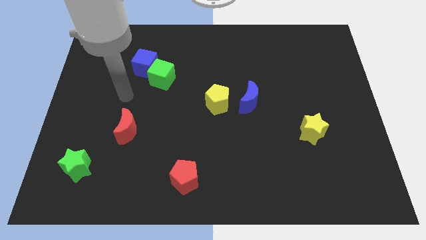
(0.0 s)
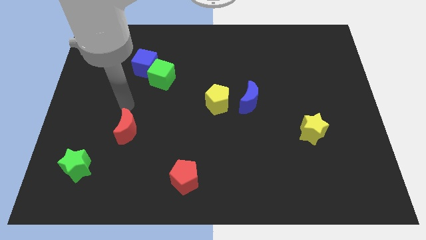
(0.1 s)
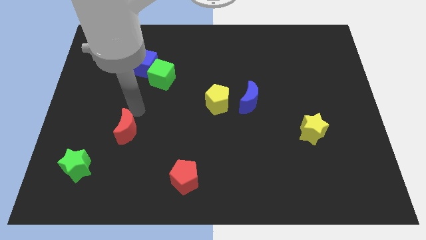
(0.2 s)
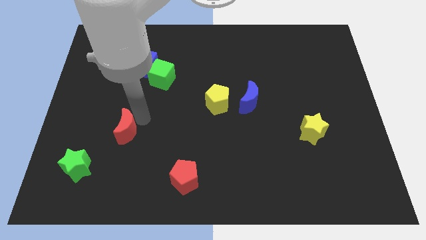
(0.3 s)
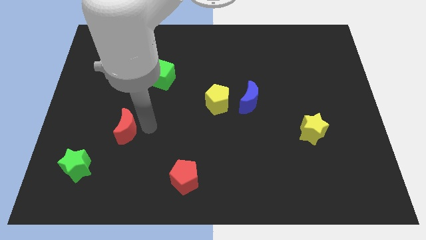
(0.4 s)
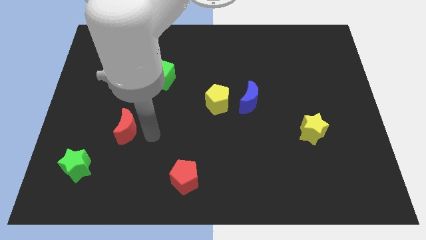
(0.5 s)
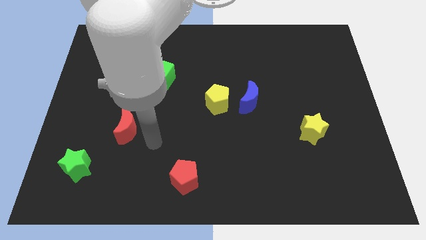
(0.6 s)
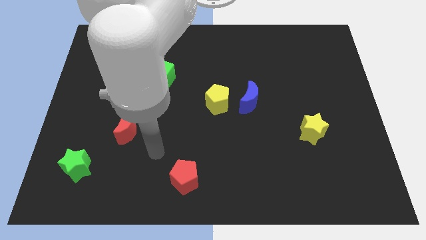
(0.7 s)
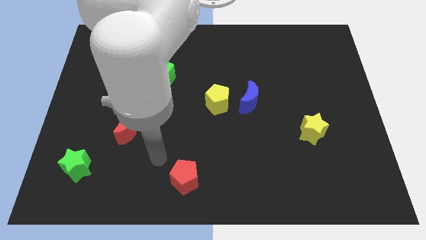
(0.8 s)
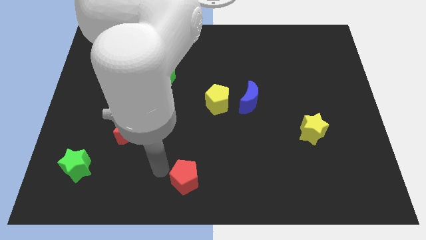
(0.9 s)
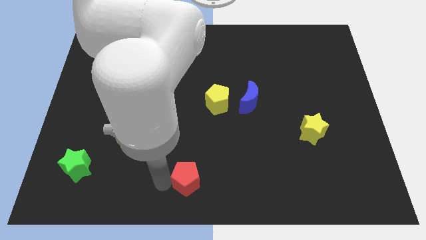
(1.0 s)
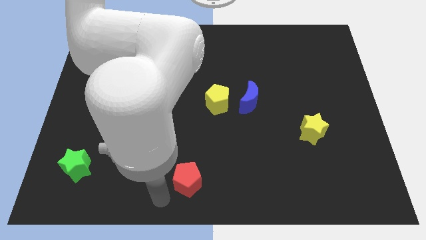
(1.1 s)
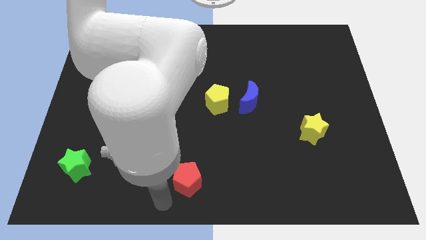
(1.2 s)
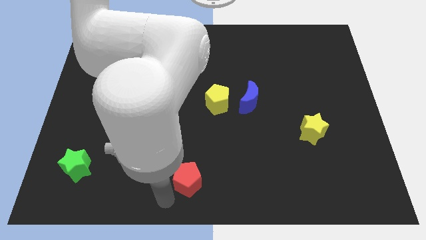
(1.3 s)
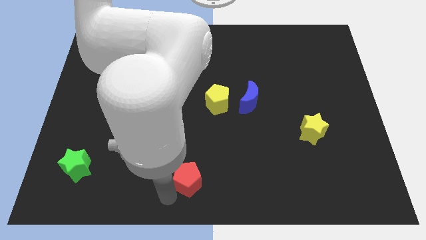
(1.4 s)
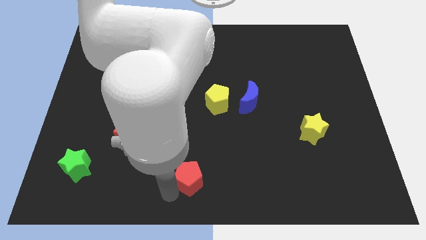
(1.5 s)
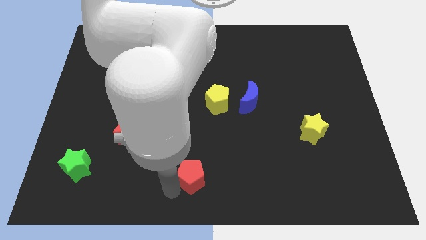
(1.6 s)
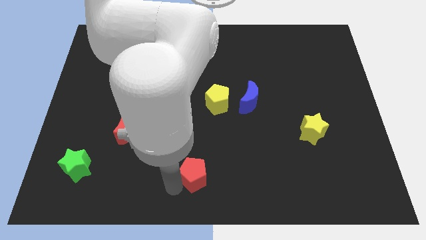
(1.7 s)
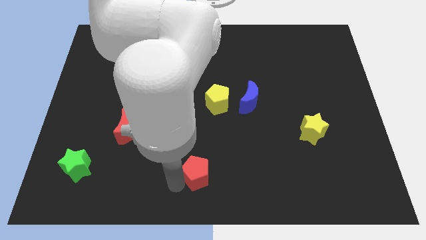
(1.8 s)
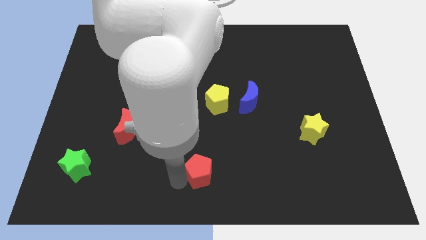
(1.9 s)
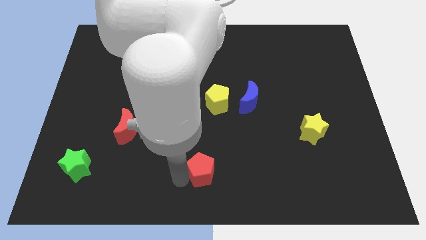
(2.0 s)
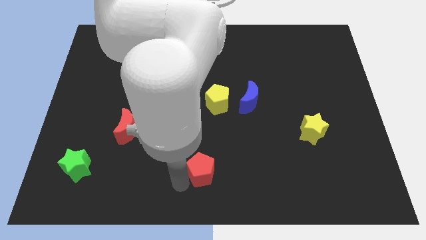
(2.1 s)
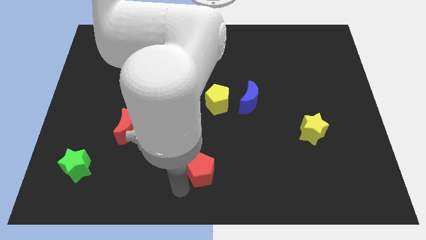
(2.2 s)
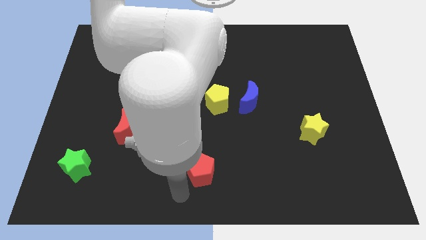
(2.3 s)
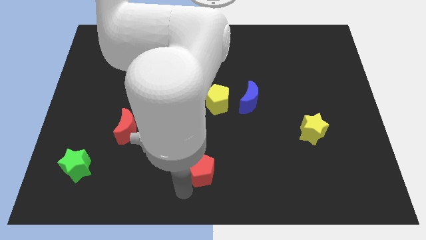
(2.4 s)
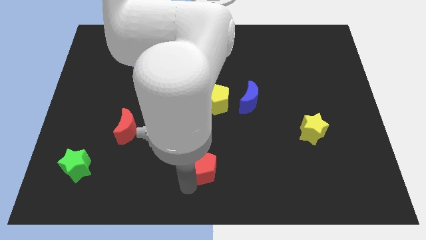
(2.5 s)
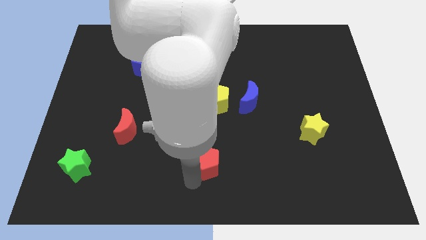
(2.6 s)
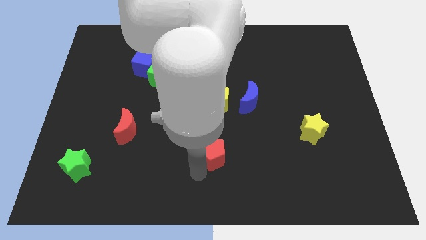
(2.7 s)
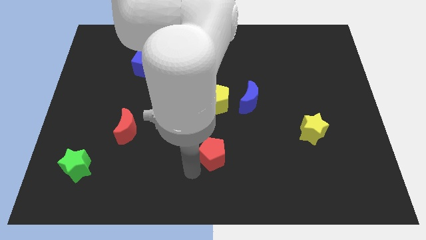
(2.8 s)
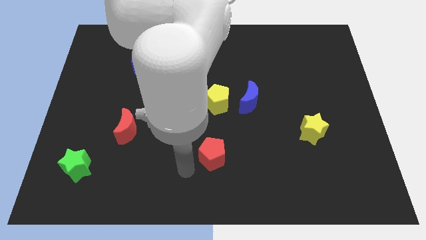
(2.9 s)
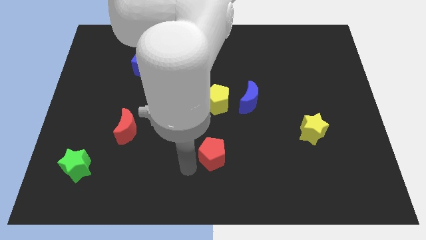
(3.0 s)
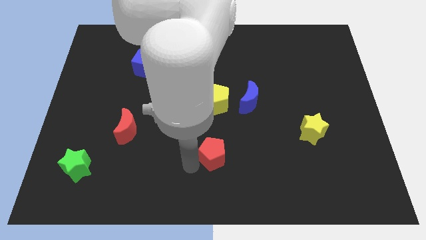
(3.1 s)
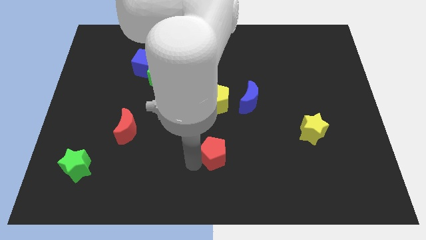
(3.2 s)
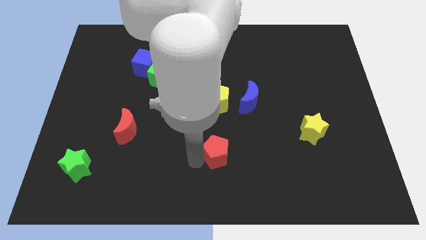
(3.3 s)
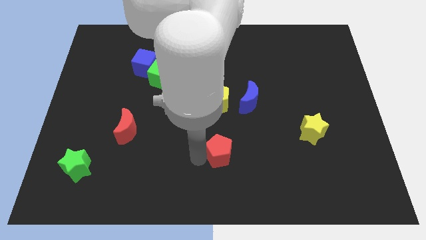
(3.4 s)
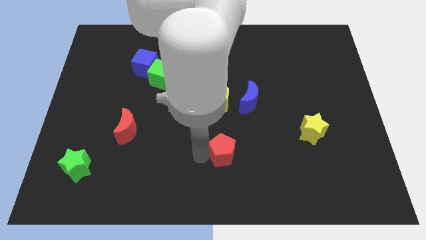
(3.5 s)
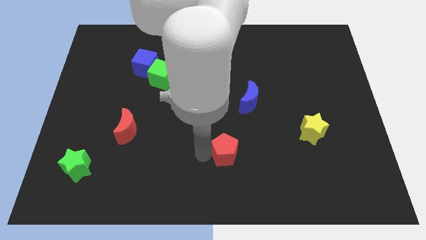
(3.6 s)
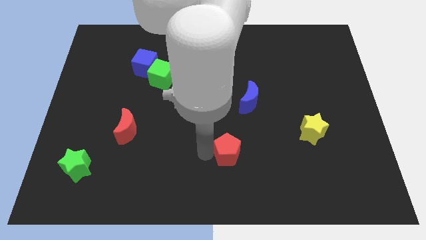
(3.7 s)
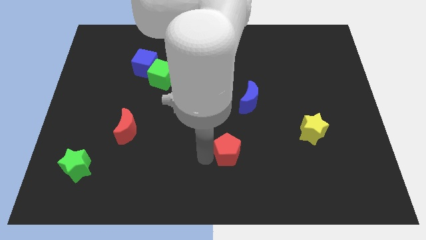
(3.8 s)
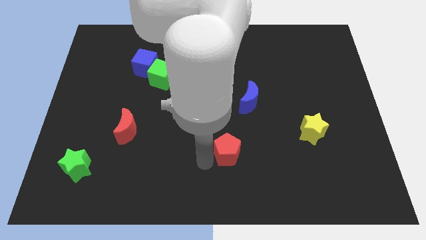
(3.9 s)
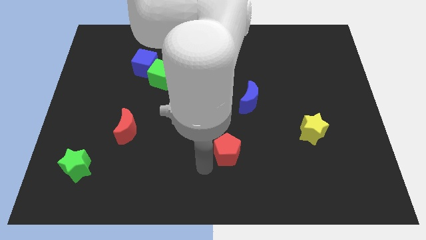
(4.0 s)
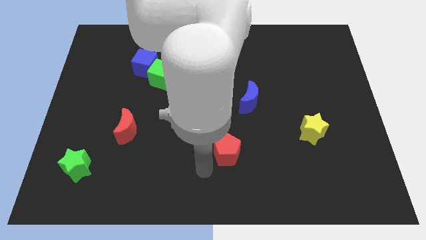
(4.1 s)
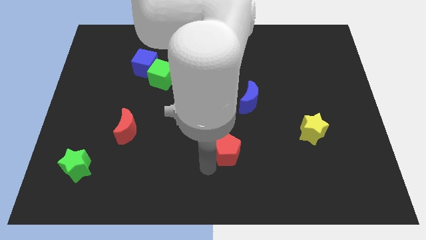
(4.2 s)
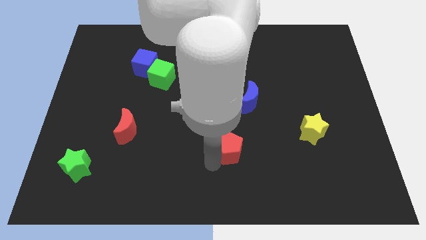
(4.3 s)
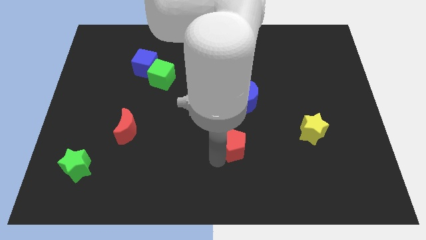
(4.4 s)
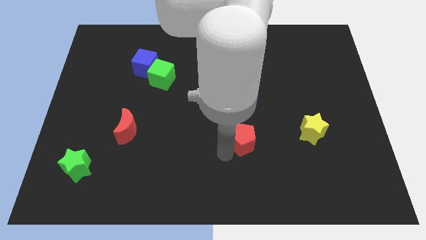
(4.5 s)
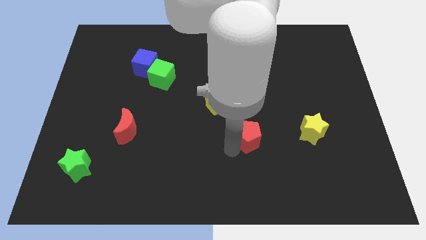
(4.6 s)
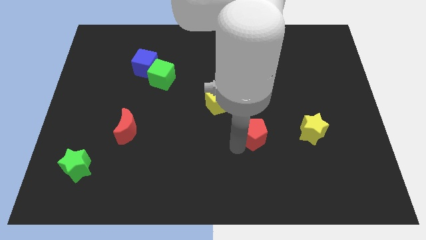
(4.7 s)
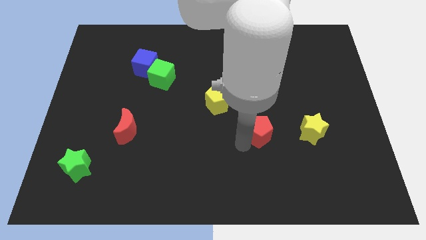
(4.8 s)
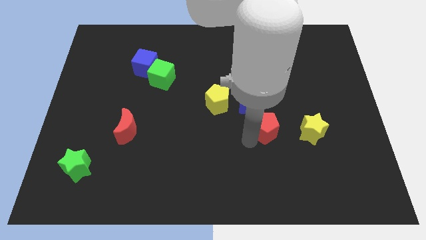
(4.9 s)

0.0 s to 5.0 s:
push the red pentagon diagonally up and right

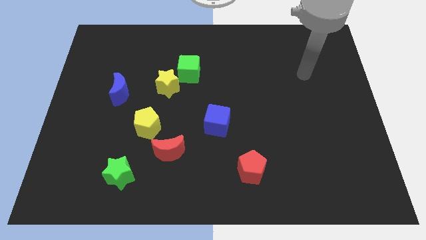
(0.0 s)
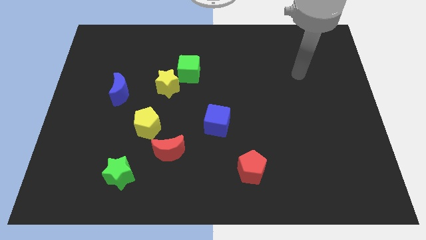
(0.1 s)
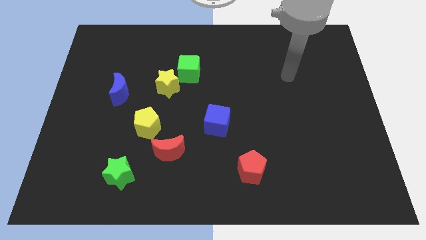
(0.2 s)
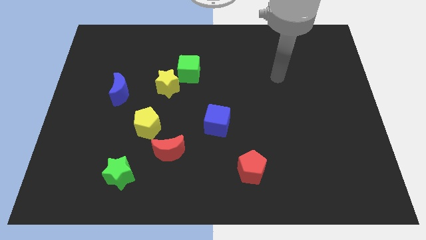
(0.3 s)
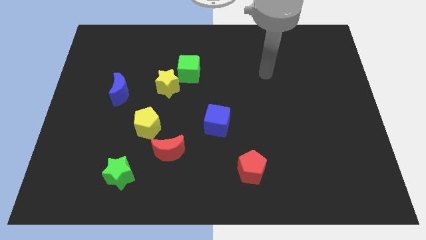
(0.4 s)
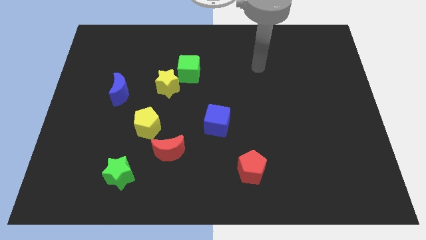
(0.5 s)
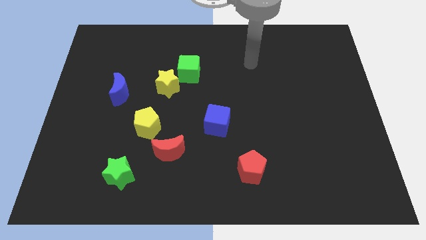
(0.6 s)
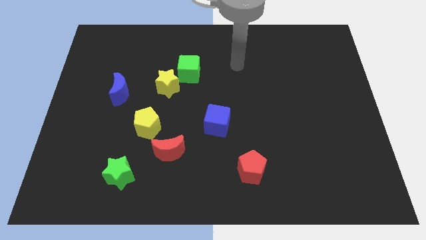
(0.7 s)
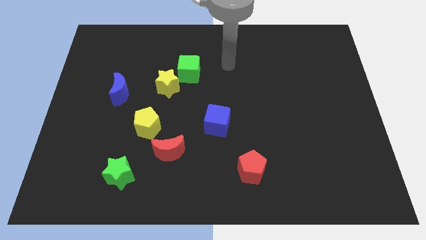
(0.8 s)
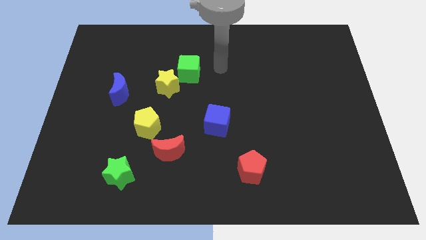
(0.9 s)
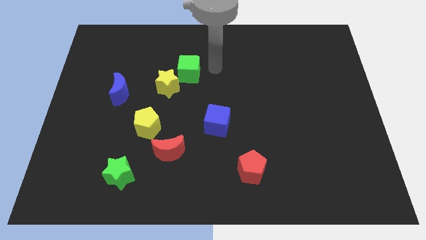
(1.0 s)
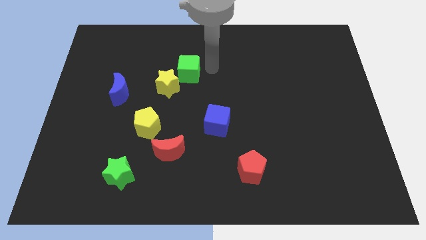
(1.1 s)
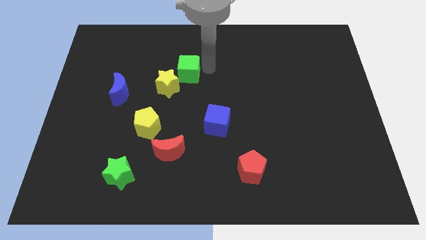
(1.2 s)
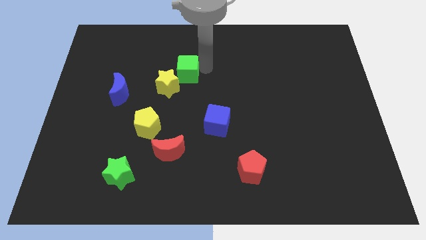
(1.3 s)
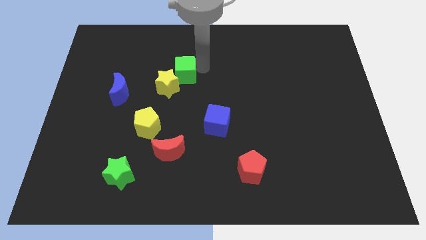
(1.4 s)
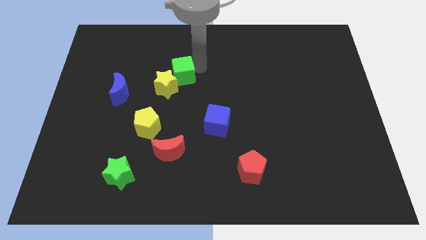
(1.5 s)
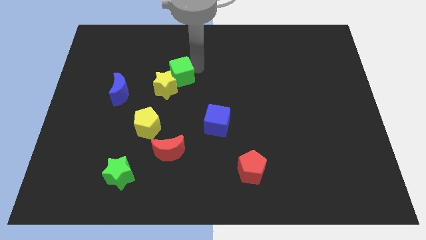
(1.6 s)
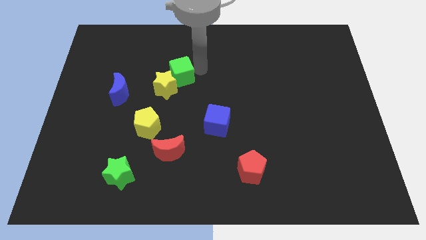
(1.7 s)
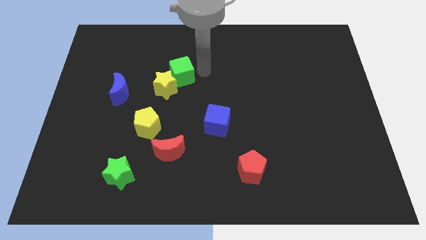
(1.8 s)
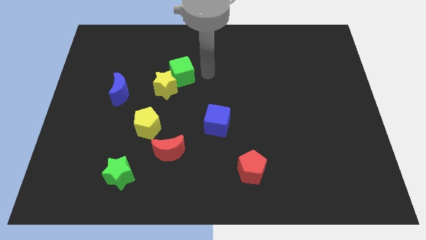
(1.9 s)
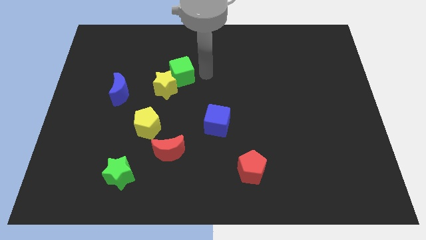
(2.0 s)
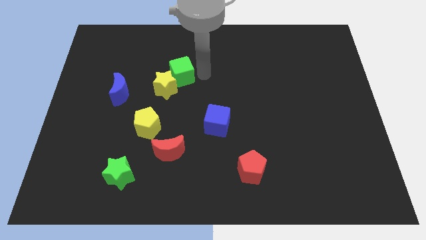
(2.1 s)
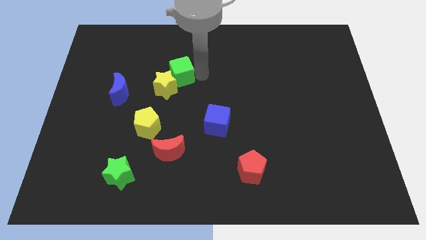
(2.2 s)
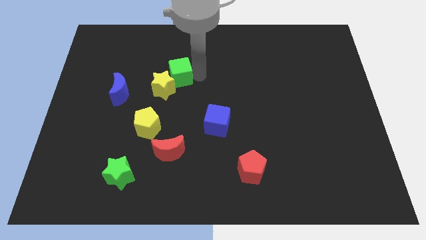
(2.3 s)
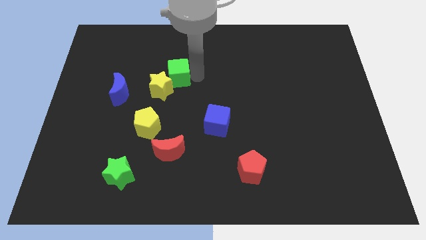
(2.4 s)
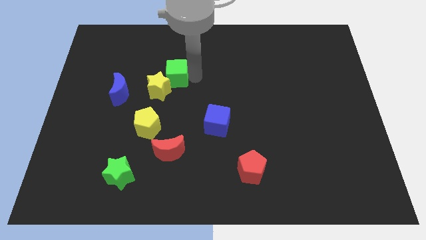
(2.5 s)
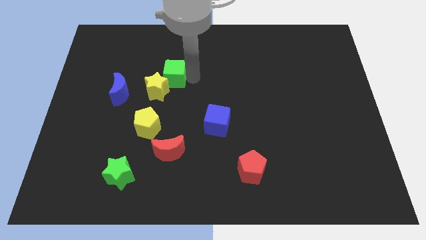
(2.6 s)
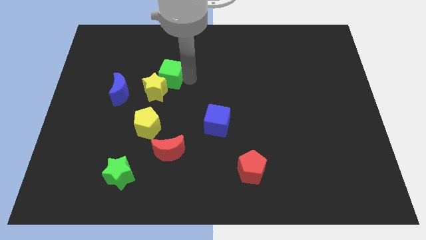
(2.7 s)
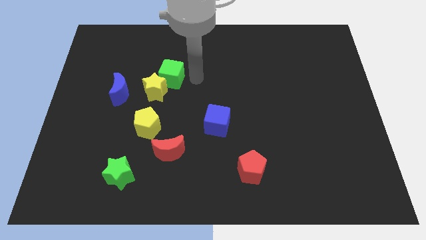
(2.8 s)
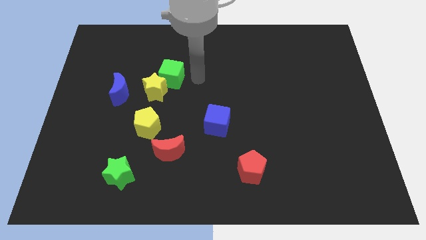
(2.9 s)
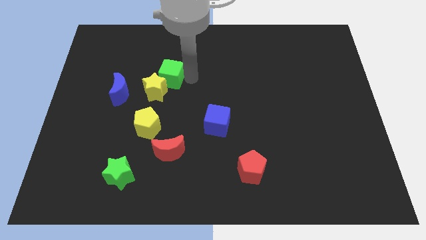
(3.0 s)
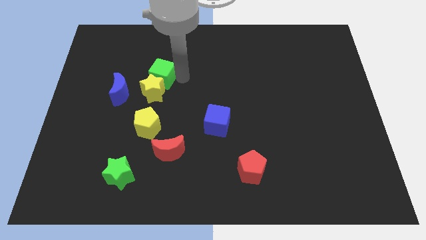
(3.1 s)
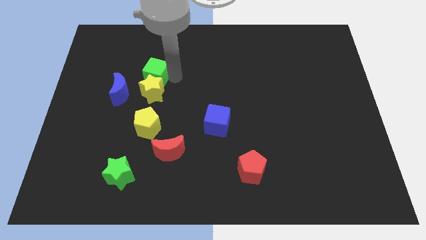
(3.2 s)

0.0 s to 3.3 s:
push the green cube to the left a bit

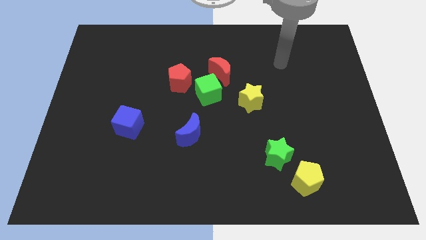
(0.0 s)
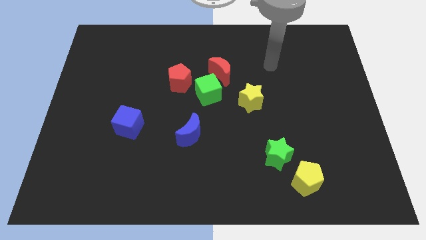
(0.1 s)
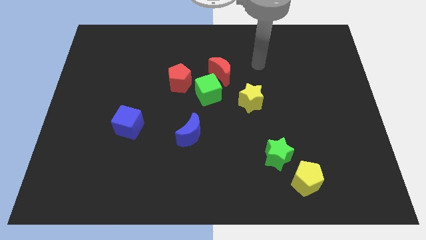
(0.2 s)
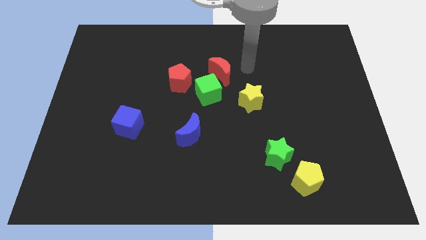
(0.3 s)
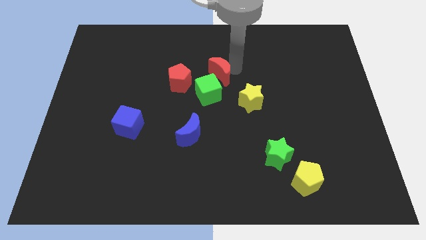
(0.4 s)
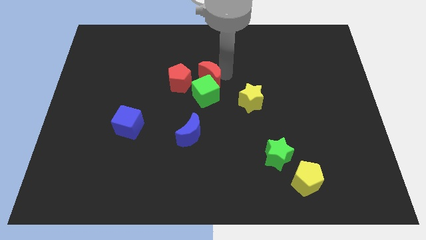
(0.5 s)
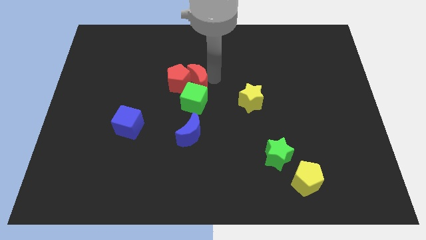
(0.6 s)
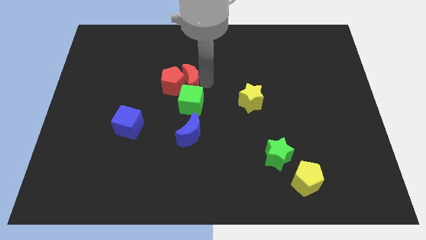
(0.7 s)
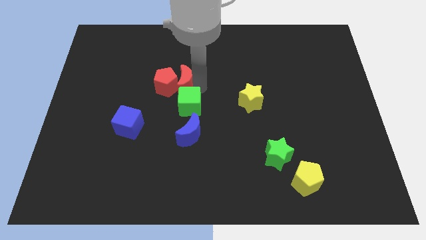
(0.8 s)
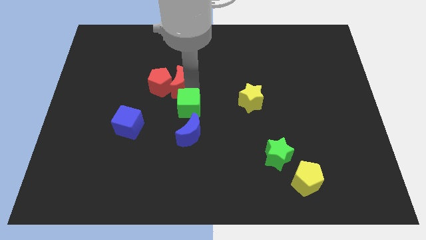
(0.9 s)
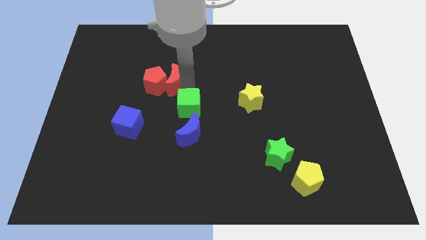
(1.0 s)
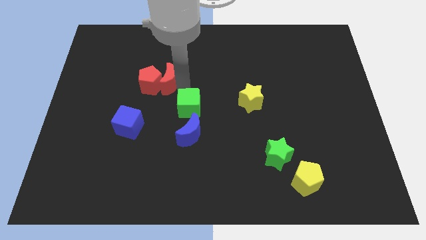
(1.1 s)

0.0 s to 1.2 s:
slightly move the red pentagon left
